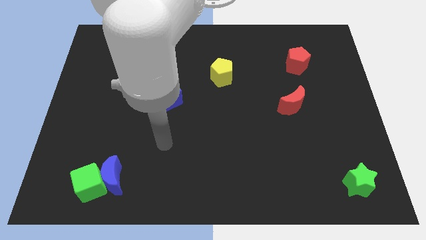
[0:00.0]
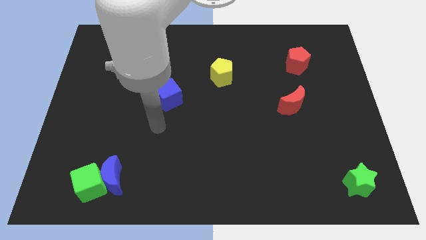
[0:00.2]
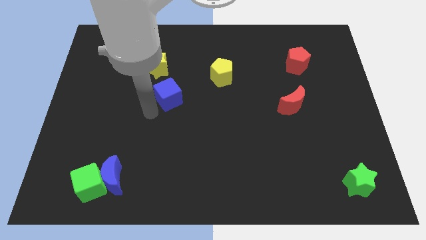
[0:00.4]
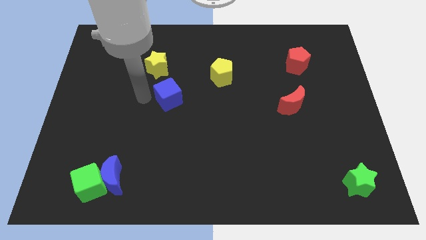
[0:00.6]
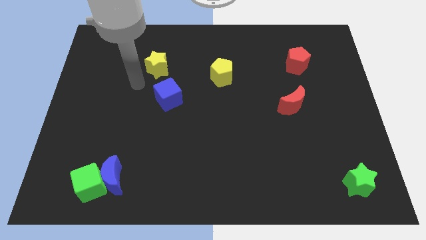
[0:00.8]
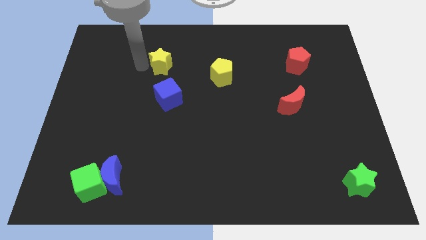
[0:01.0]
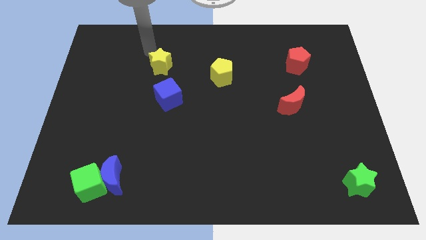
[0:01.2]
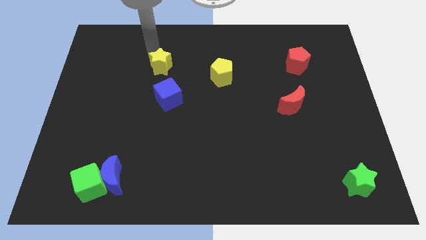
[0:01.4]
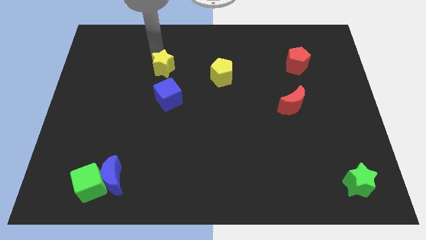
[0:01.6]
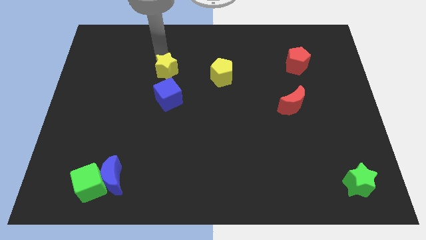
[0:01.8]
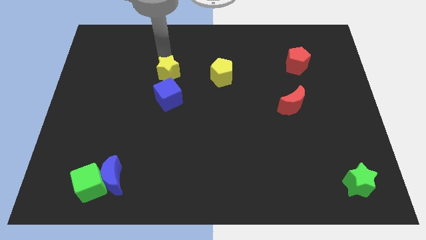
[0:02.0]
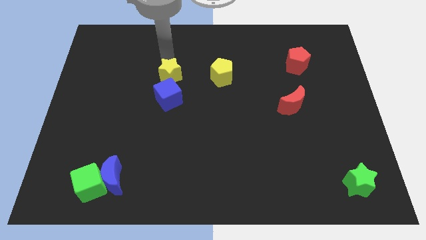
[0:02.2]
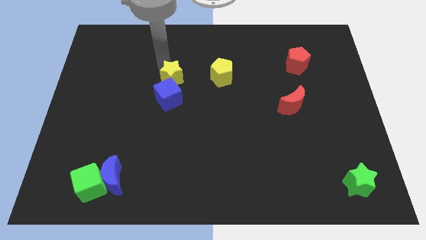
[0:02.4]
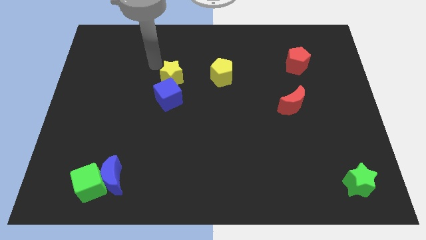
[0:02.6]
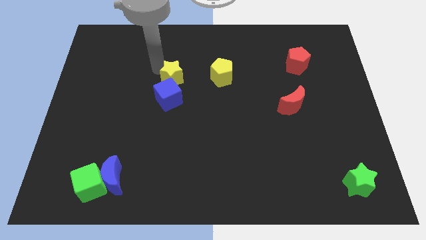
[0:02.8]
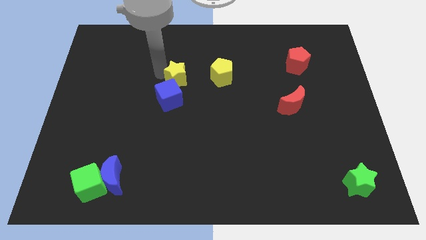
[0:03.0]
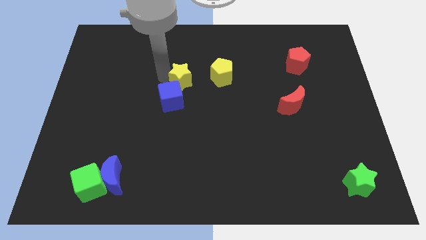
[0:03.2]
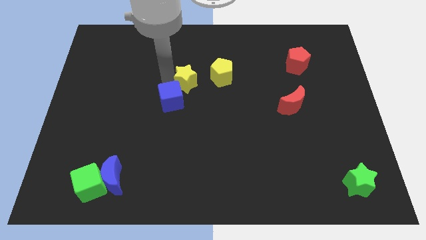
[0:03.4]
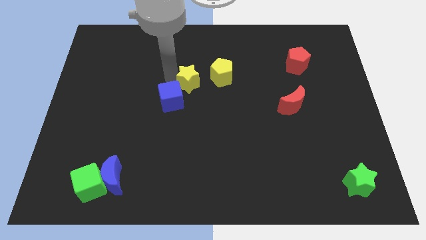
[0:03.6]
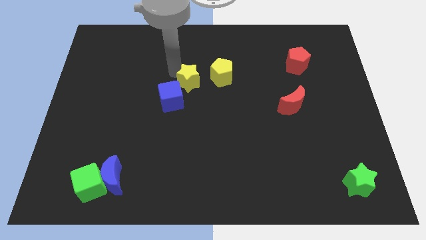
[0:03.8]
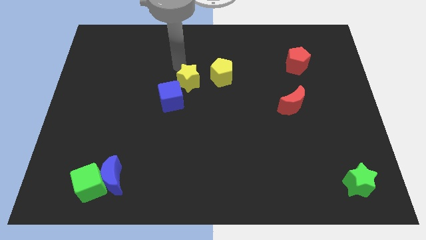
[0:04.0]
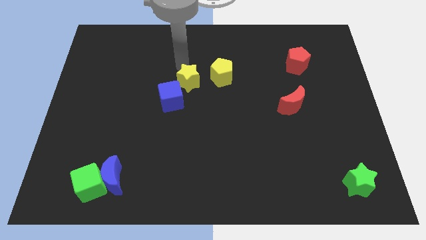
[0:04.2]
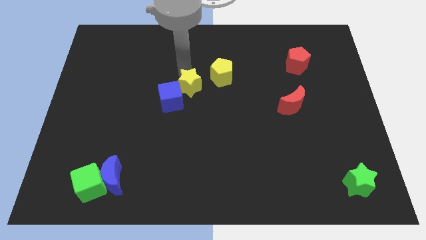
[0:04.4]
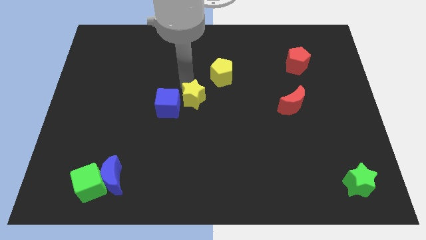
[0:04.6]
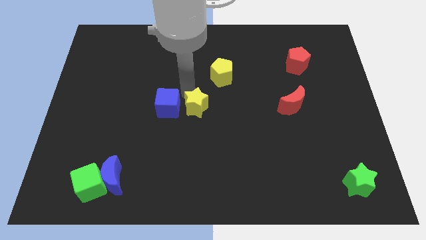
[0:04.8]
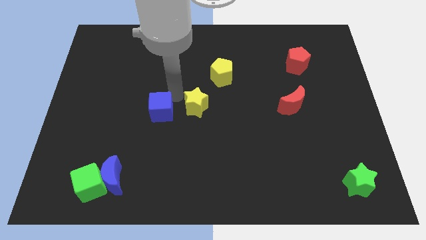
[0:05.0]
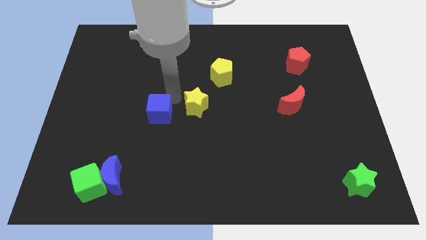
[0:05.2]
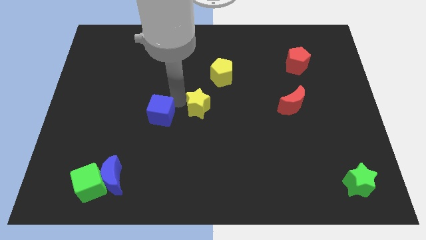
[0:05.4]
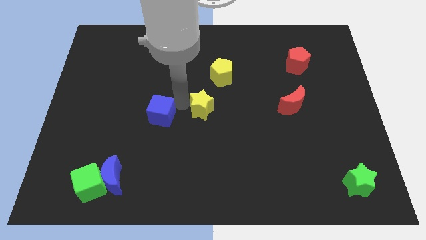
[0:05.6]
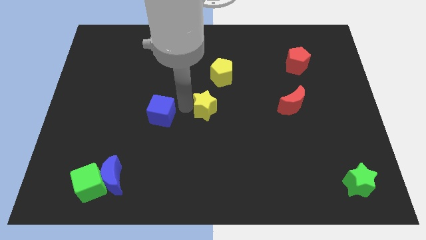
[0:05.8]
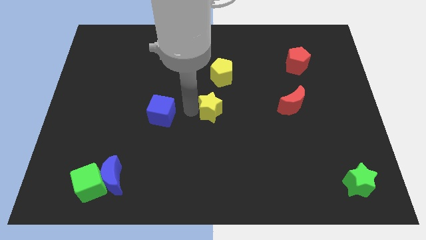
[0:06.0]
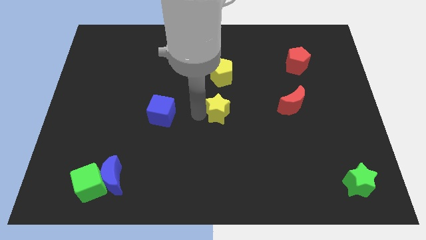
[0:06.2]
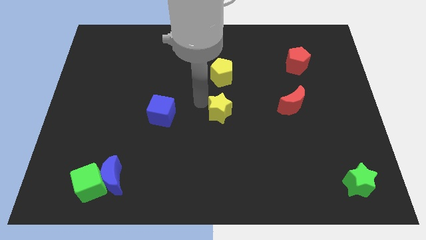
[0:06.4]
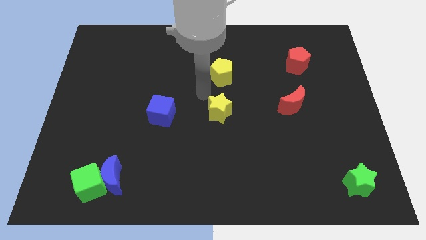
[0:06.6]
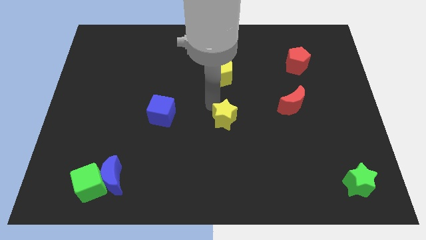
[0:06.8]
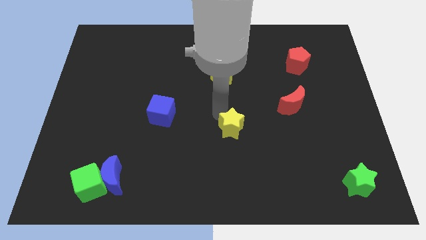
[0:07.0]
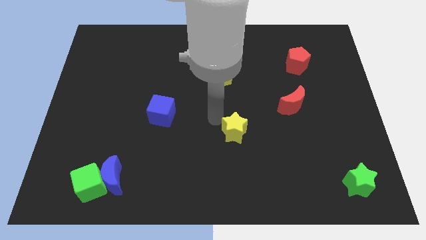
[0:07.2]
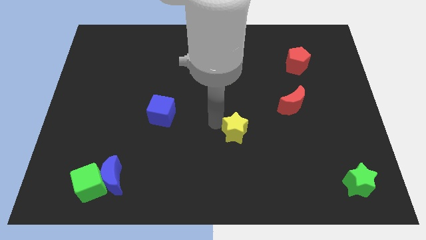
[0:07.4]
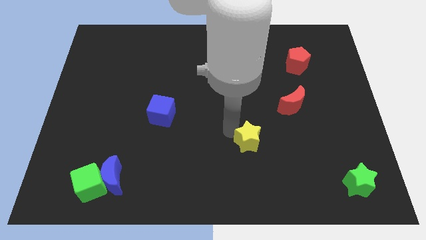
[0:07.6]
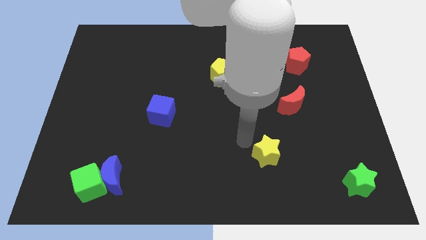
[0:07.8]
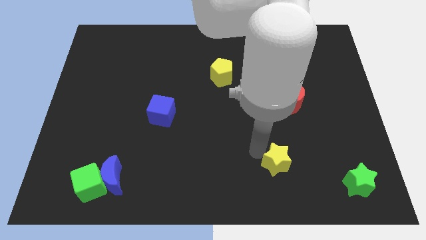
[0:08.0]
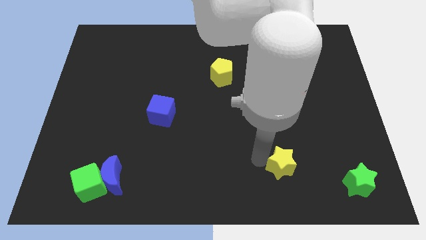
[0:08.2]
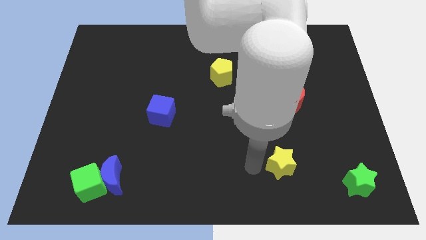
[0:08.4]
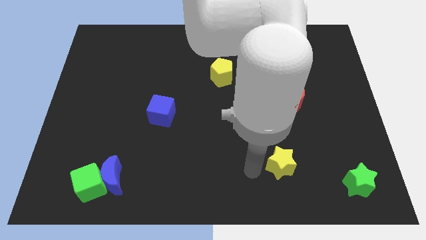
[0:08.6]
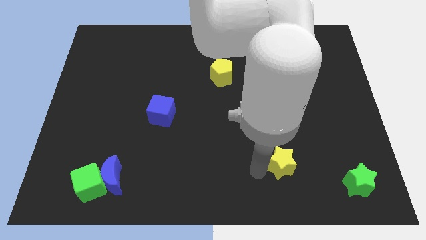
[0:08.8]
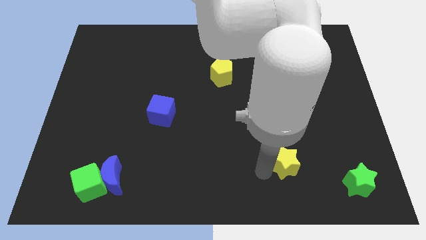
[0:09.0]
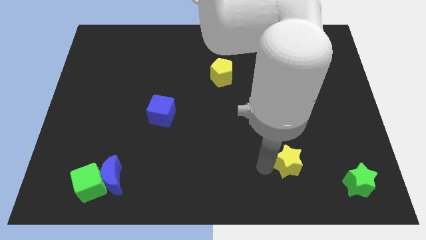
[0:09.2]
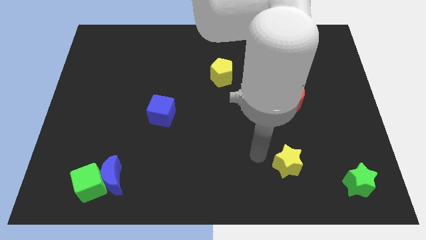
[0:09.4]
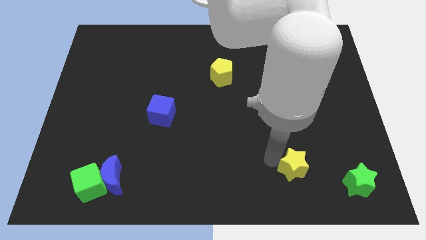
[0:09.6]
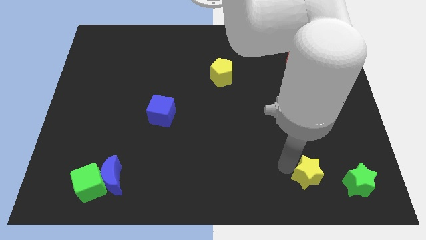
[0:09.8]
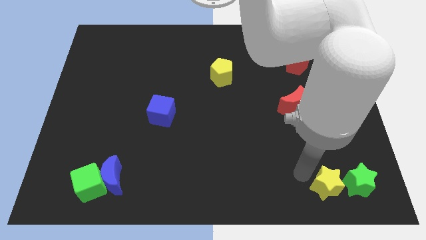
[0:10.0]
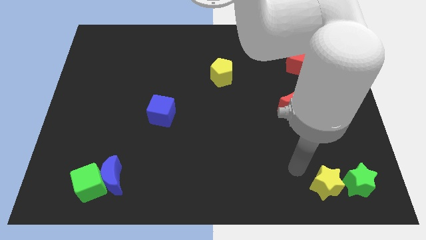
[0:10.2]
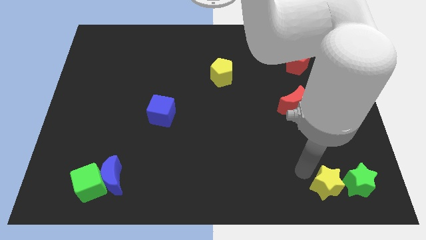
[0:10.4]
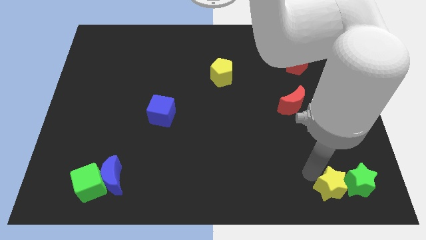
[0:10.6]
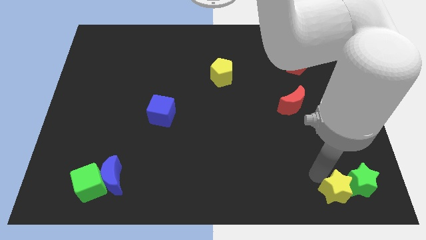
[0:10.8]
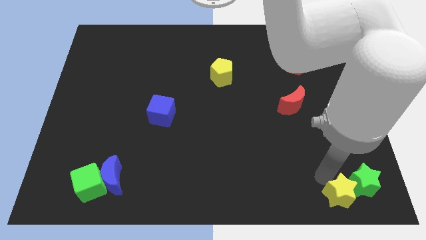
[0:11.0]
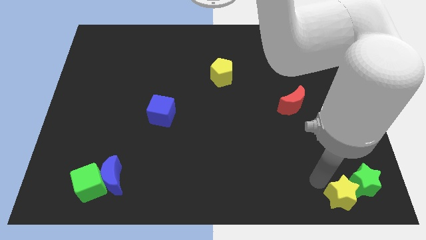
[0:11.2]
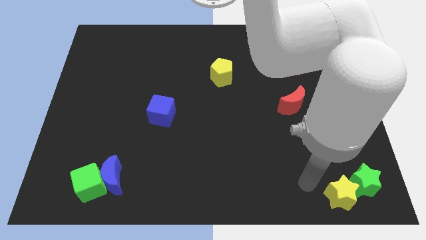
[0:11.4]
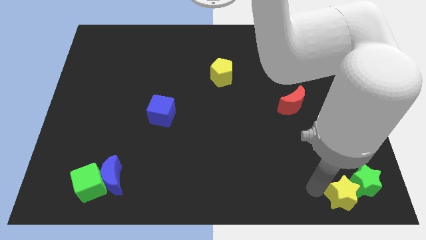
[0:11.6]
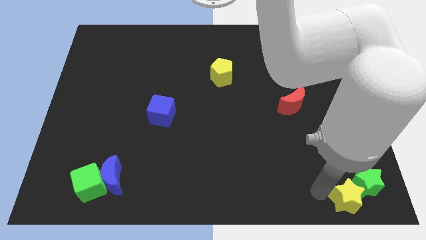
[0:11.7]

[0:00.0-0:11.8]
slide the yellow star to the bottom right
